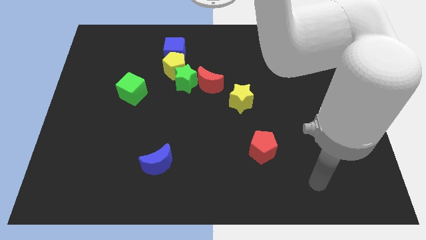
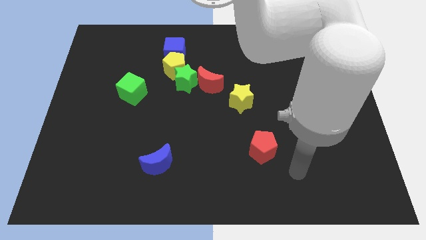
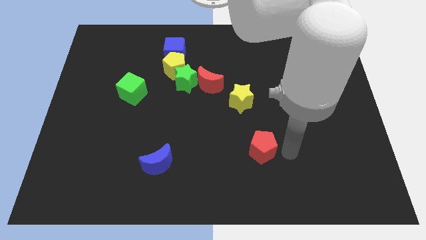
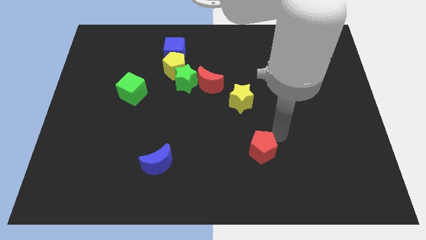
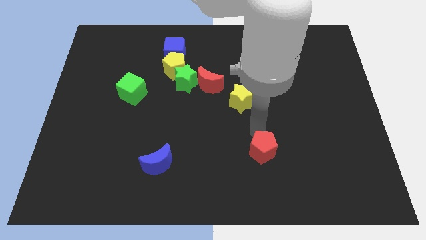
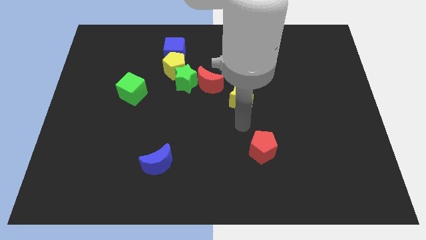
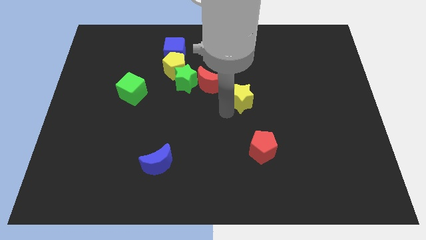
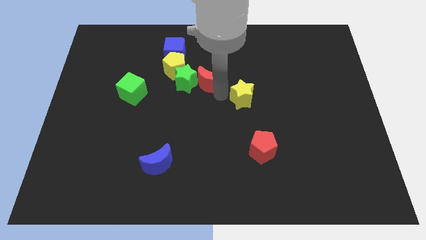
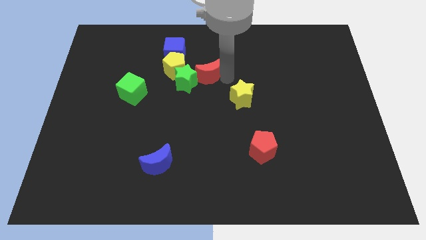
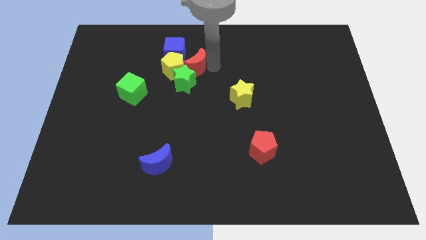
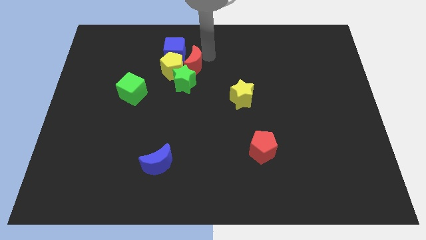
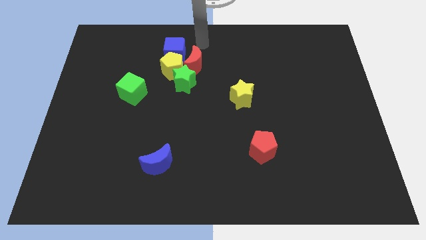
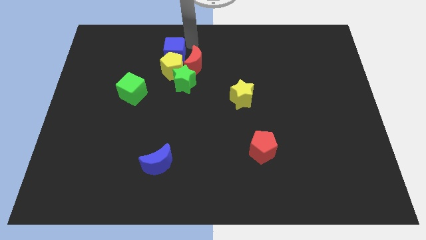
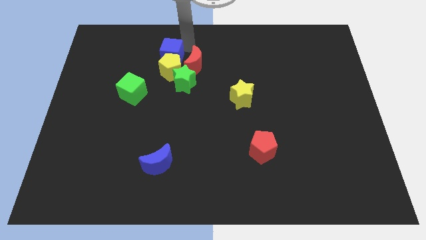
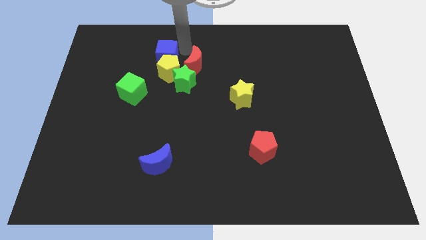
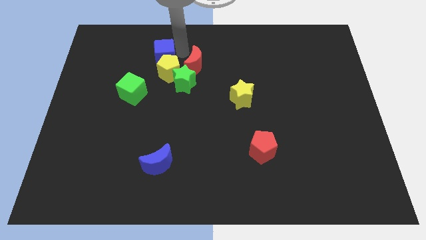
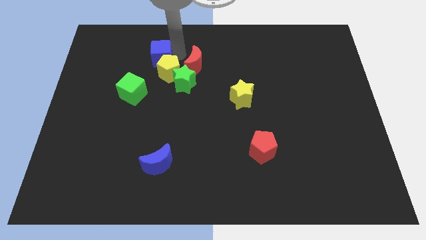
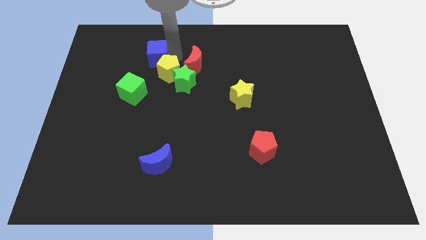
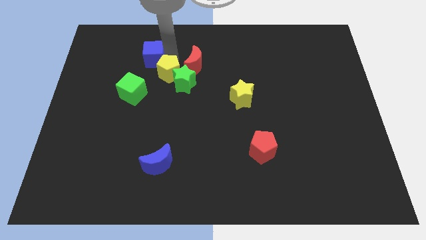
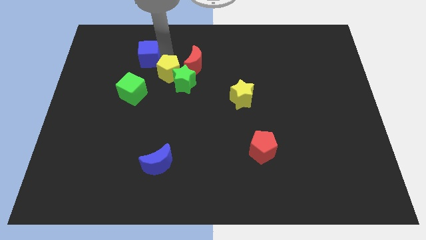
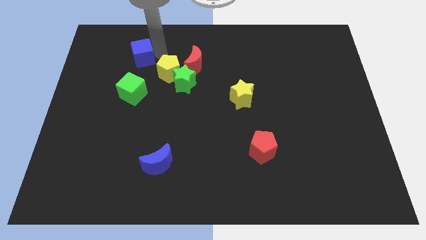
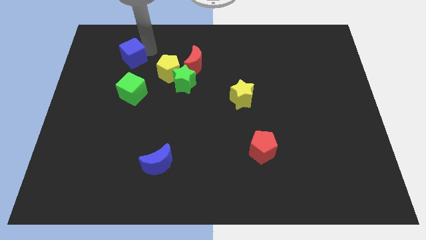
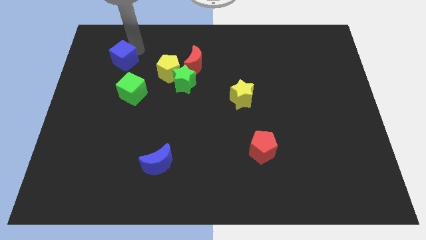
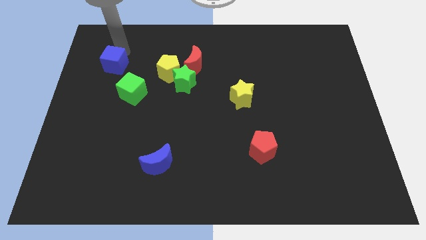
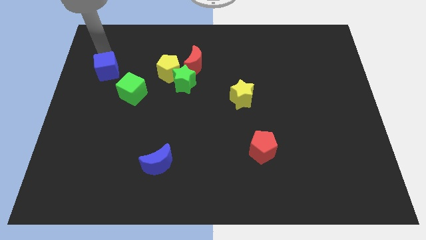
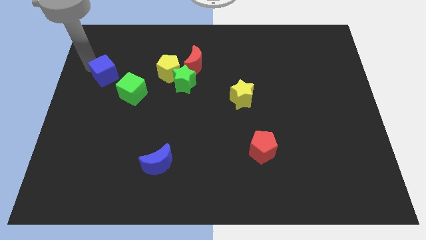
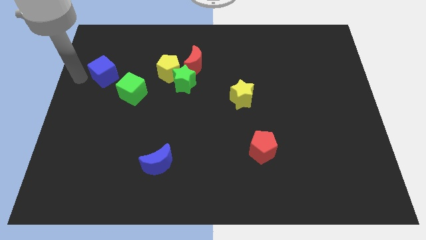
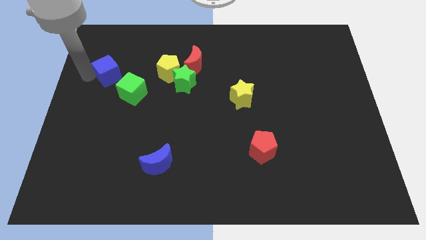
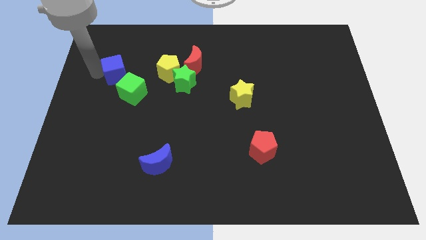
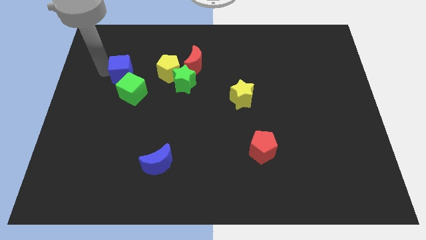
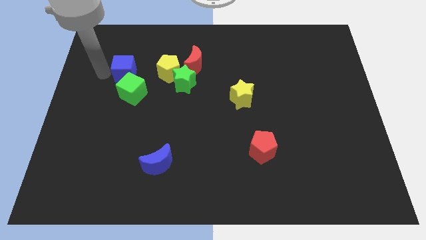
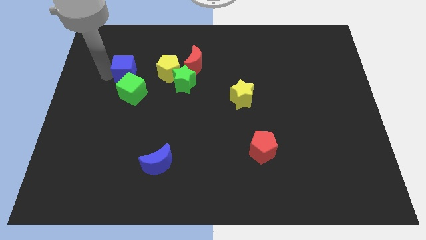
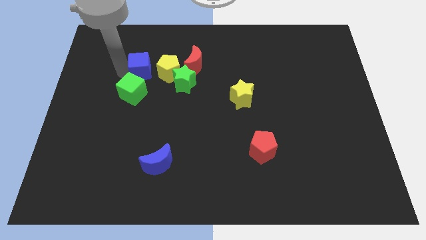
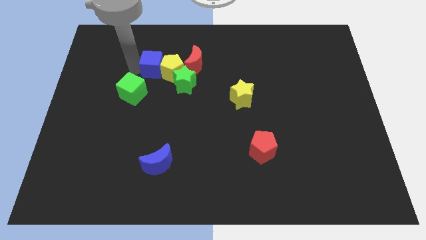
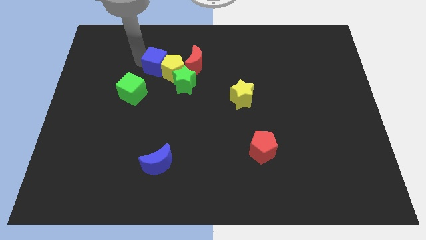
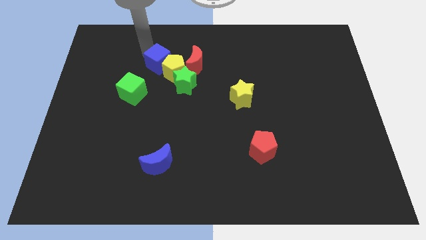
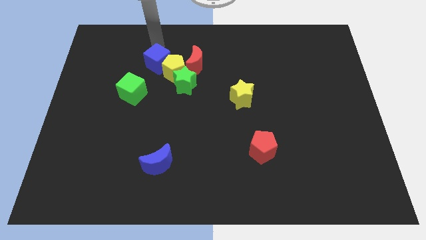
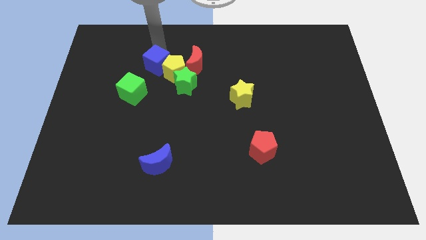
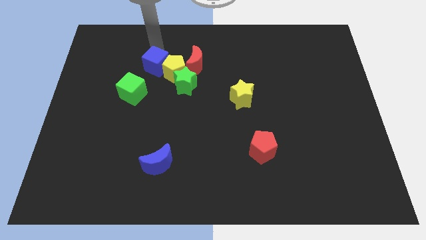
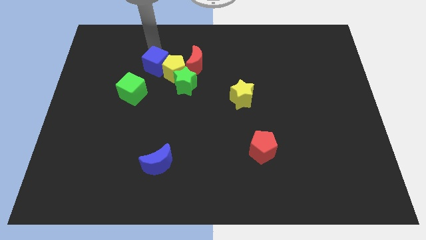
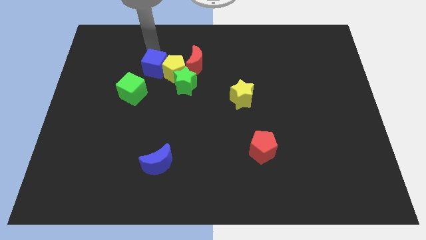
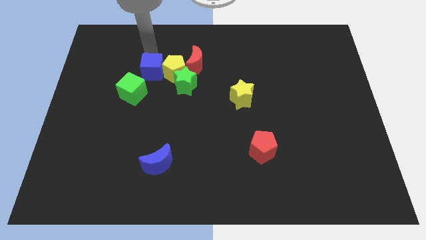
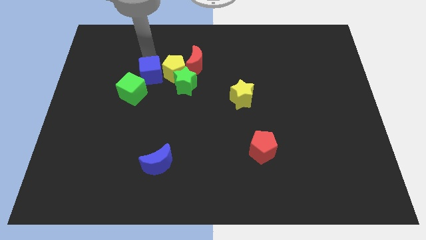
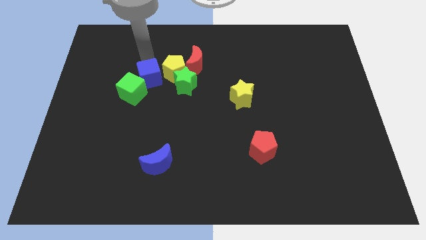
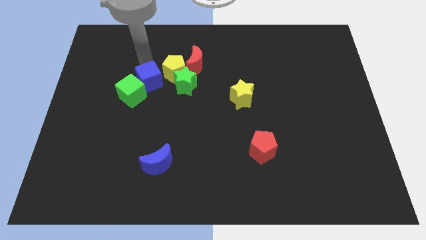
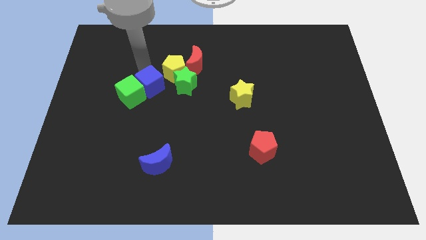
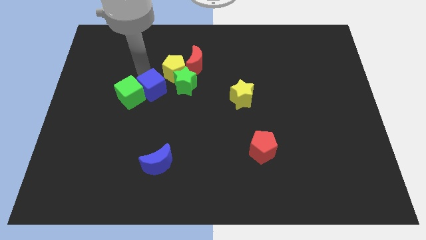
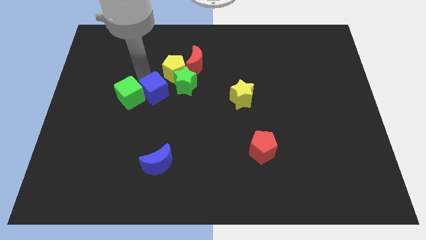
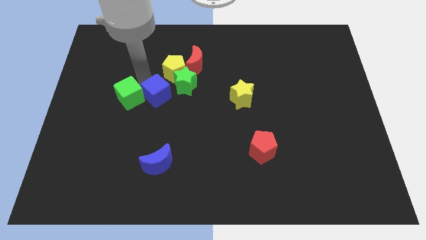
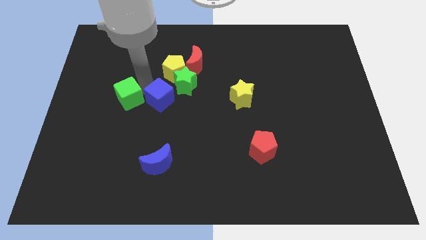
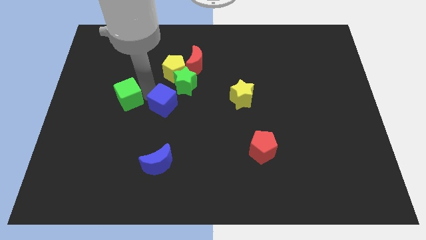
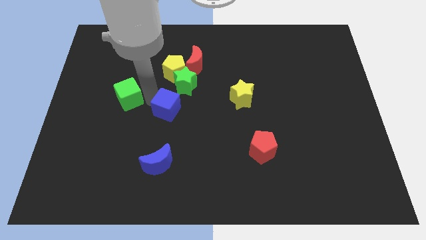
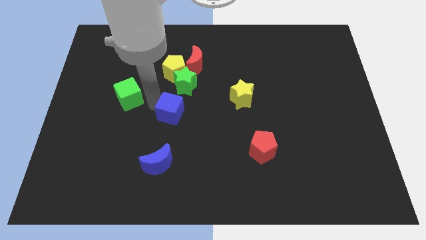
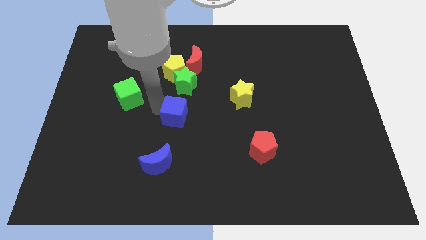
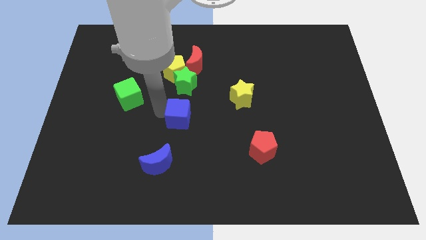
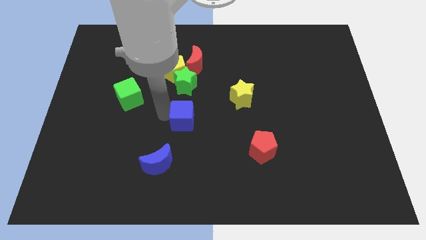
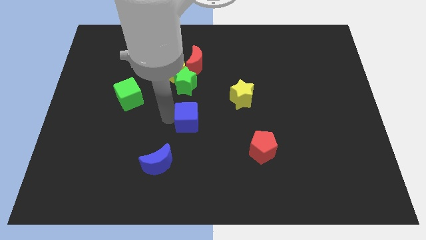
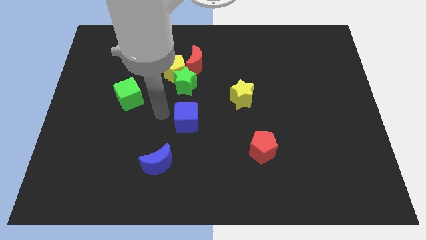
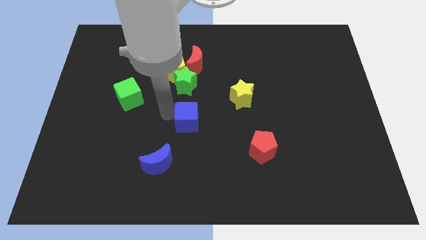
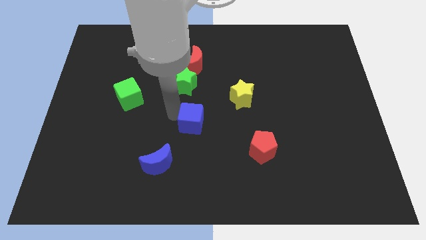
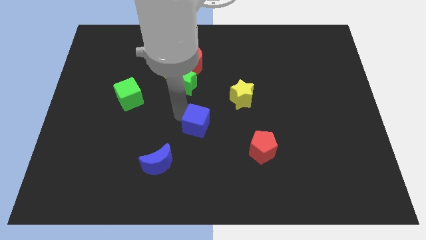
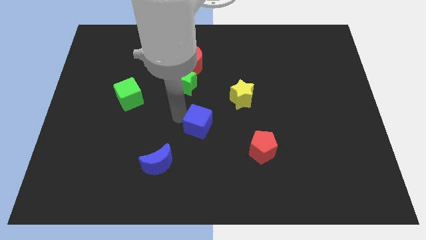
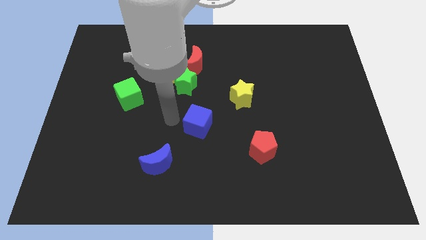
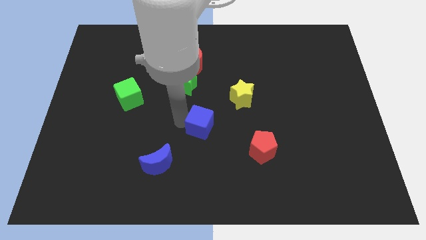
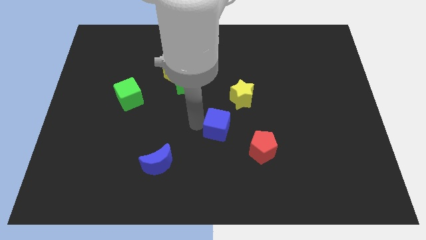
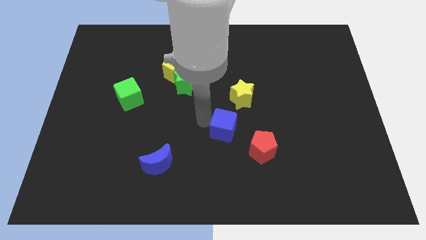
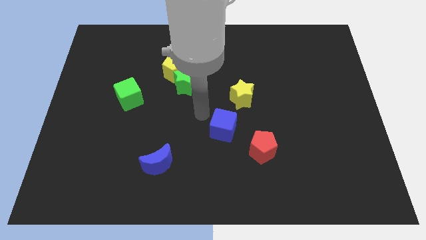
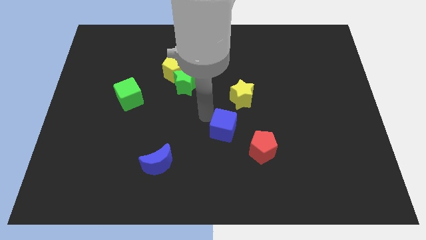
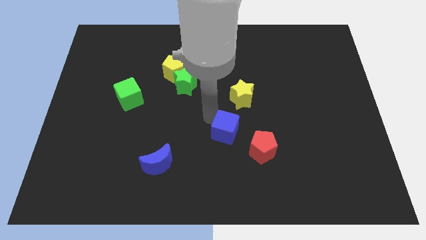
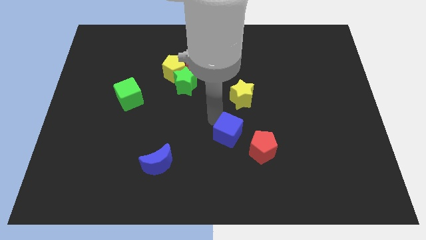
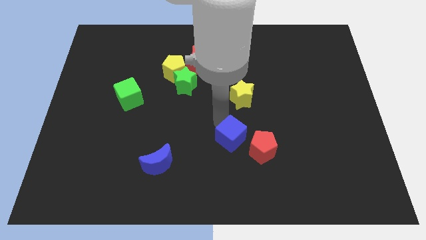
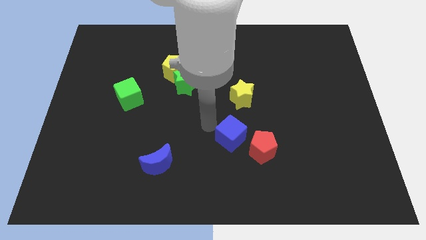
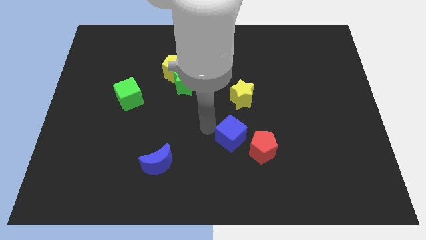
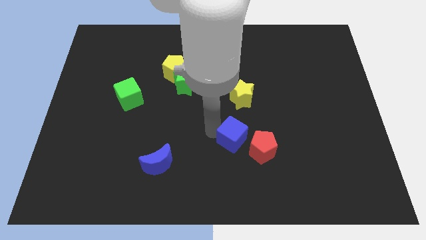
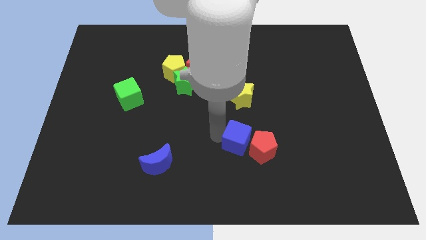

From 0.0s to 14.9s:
slide the blue cube to the red pentagon
